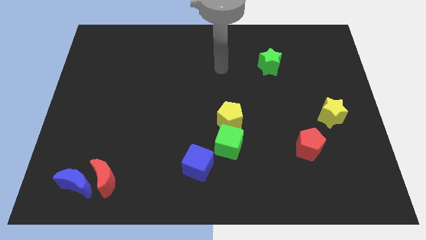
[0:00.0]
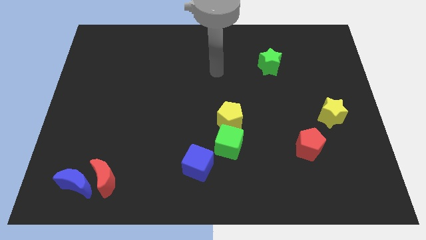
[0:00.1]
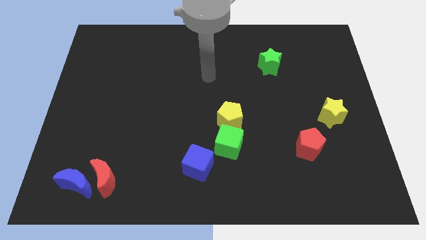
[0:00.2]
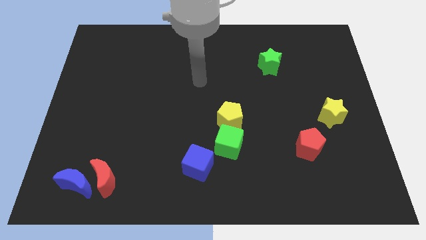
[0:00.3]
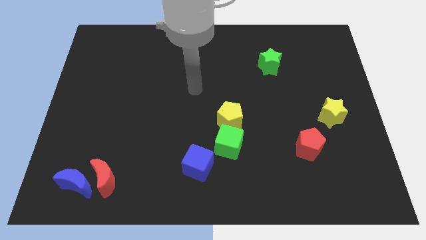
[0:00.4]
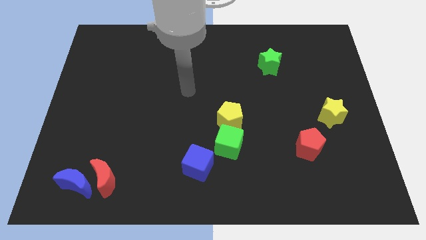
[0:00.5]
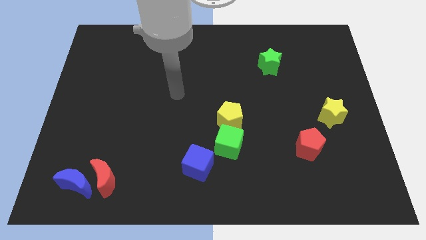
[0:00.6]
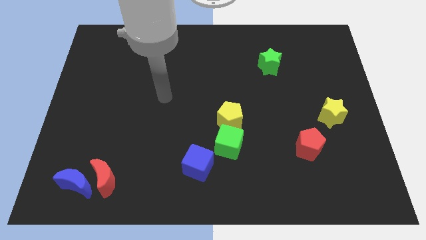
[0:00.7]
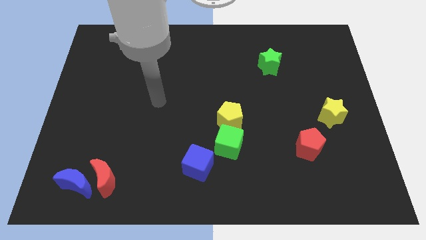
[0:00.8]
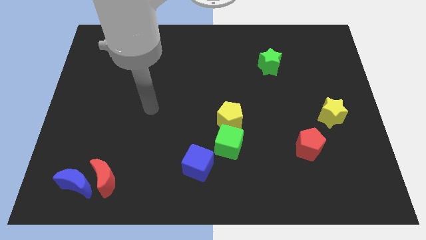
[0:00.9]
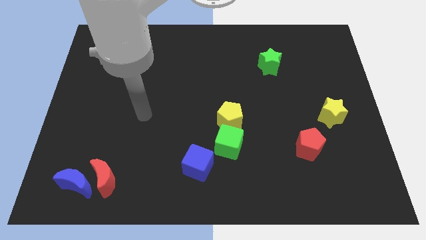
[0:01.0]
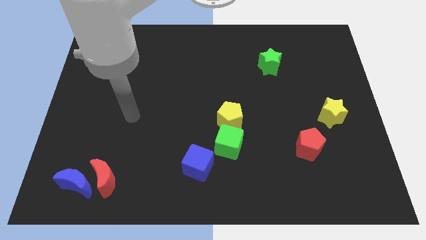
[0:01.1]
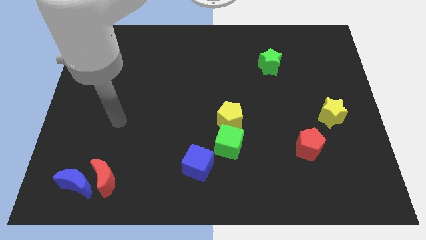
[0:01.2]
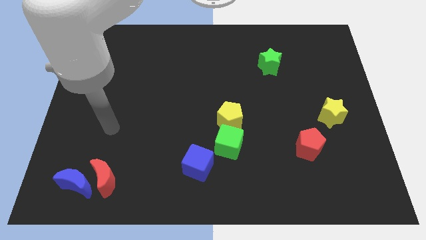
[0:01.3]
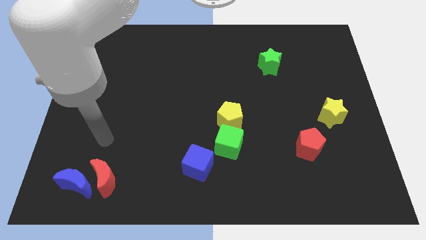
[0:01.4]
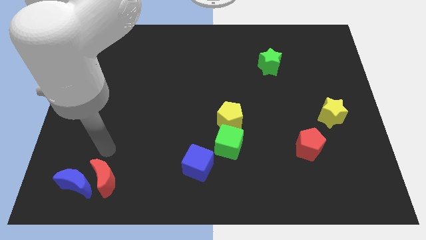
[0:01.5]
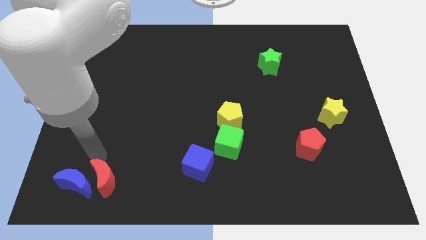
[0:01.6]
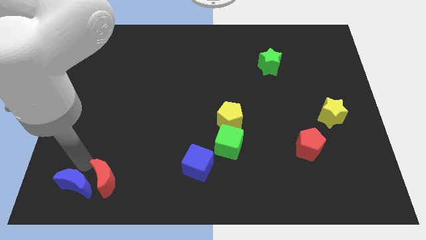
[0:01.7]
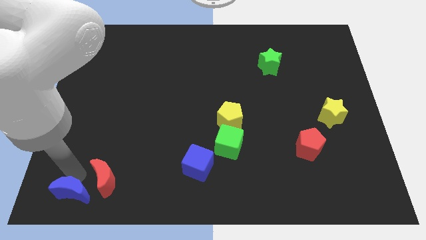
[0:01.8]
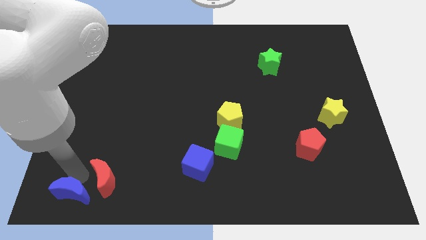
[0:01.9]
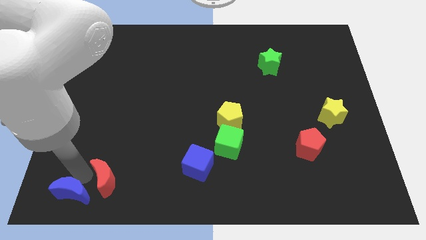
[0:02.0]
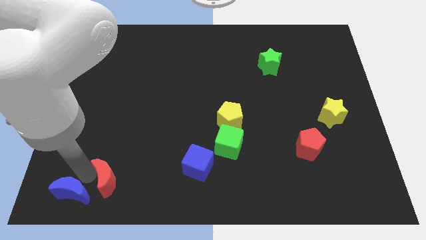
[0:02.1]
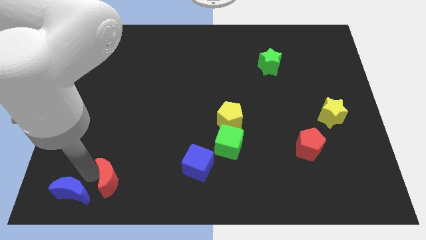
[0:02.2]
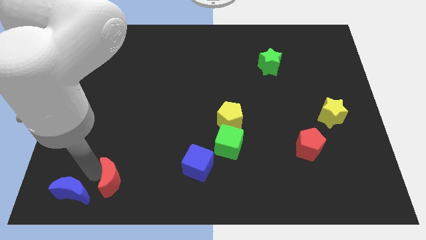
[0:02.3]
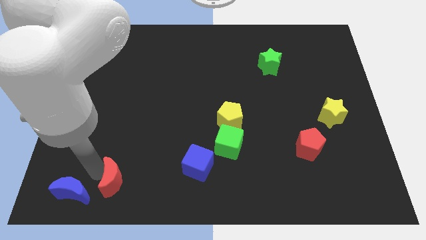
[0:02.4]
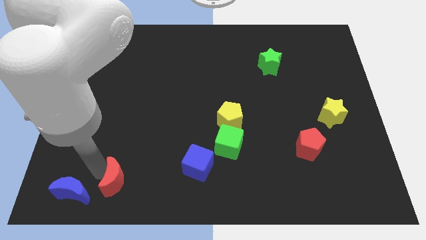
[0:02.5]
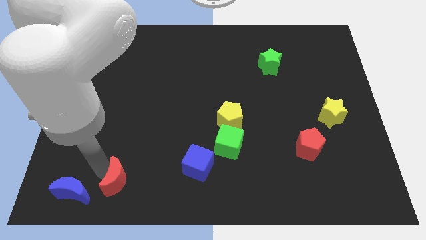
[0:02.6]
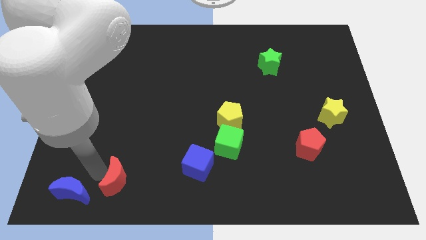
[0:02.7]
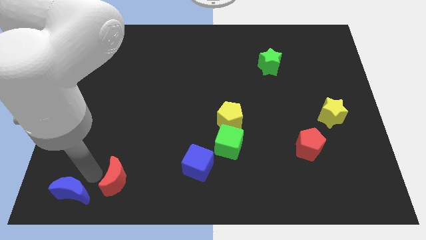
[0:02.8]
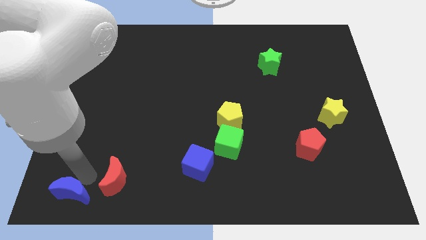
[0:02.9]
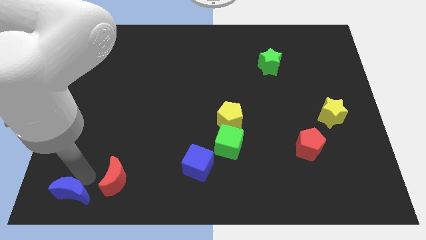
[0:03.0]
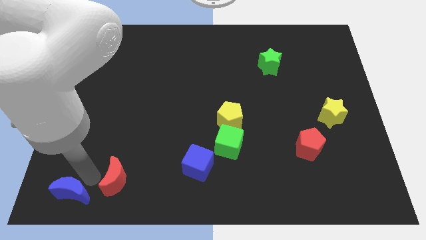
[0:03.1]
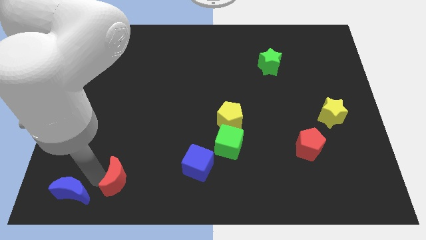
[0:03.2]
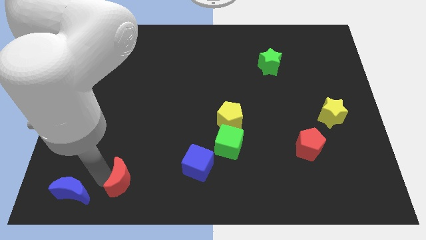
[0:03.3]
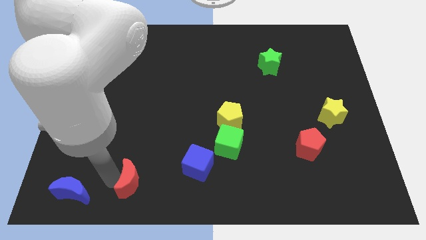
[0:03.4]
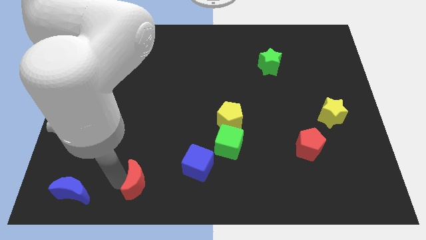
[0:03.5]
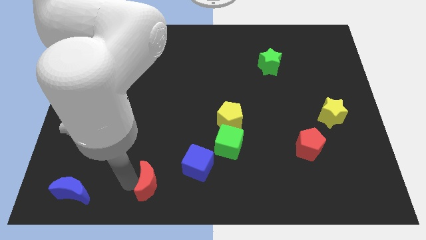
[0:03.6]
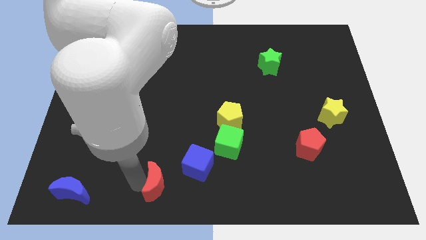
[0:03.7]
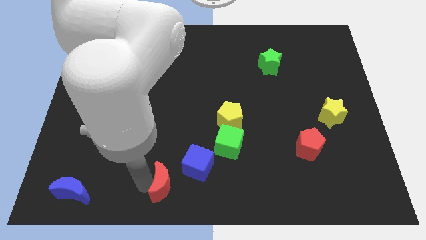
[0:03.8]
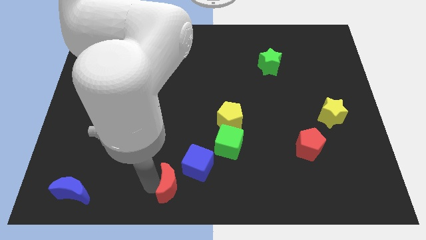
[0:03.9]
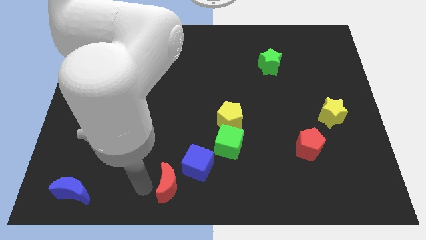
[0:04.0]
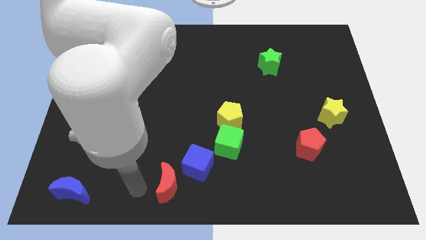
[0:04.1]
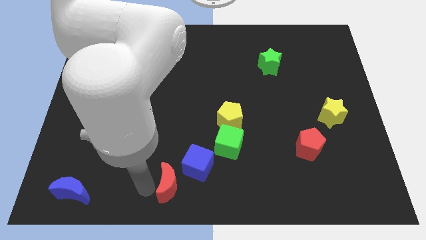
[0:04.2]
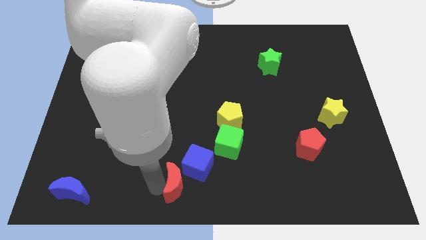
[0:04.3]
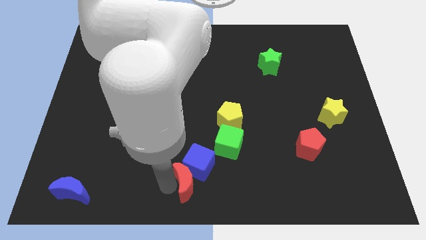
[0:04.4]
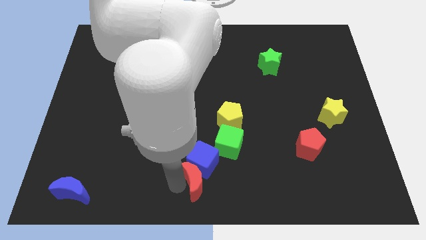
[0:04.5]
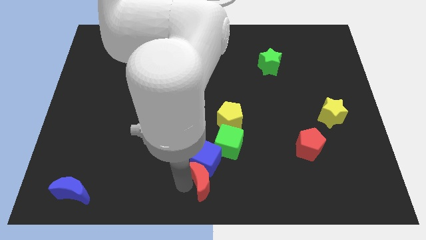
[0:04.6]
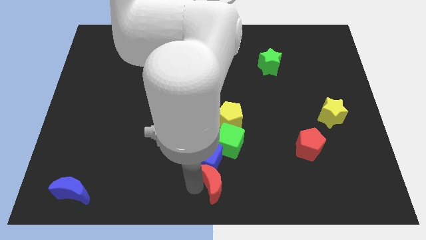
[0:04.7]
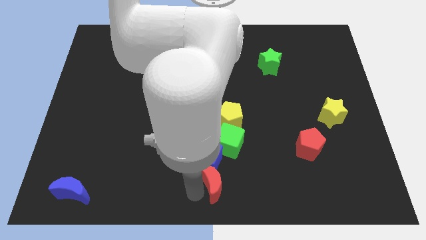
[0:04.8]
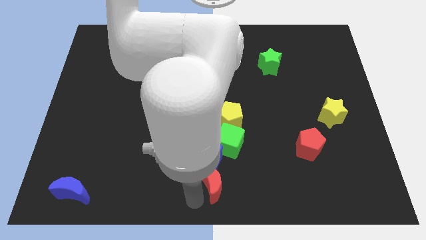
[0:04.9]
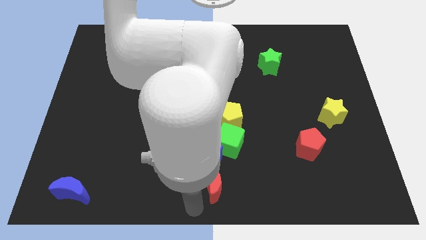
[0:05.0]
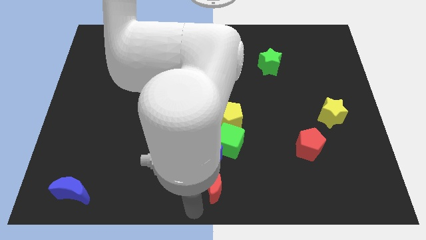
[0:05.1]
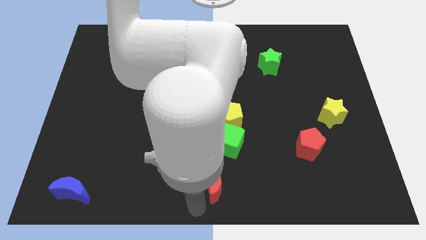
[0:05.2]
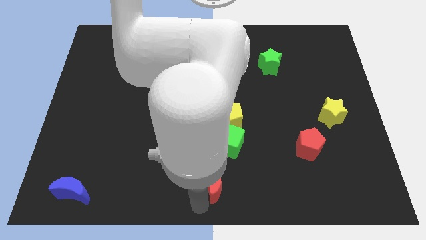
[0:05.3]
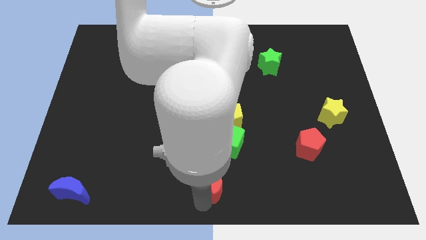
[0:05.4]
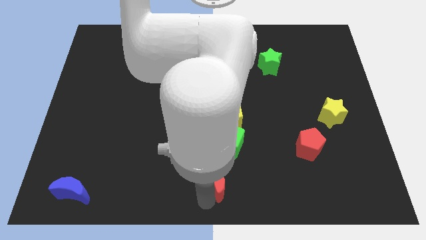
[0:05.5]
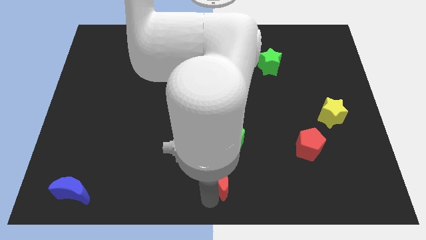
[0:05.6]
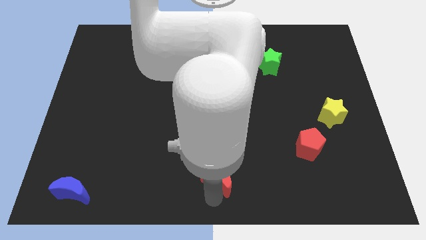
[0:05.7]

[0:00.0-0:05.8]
move the red moon to the bottom side of the yellow pentagon

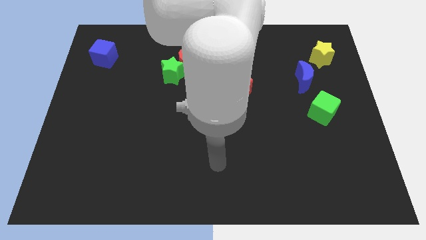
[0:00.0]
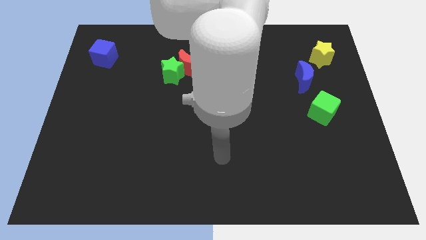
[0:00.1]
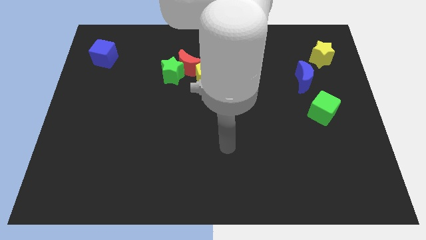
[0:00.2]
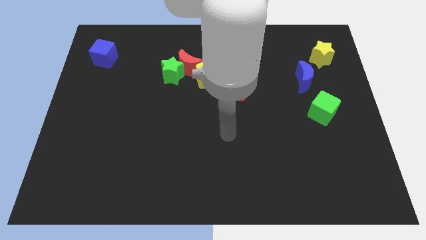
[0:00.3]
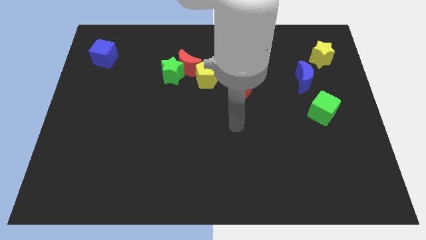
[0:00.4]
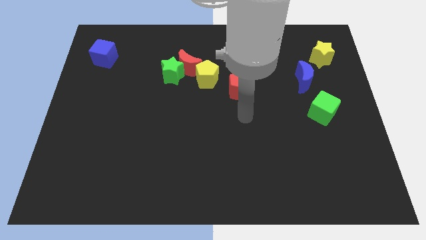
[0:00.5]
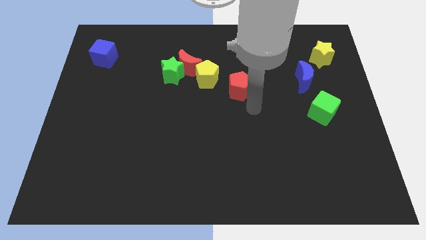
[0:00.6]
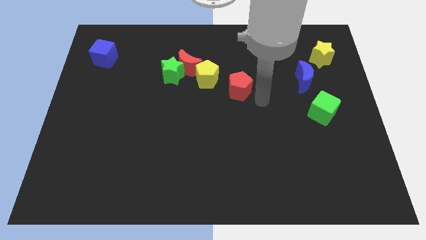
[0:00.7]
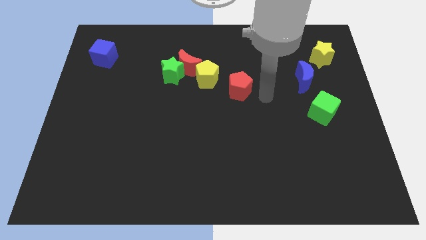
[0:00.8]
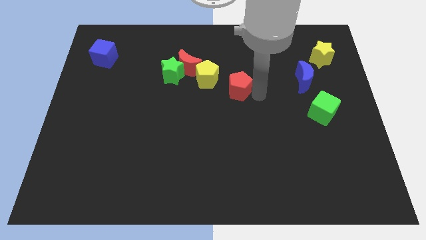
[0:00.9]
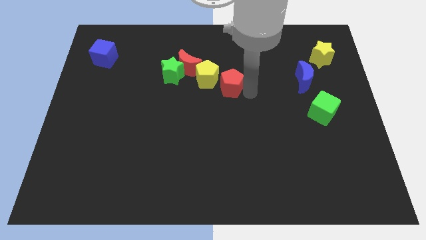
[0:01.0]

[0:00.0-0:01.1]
move the red pentagon to the bottom right side of the red moon

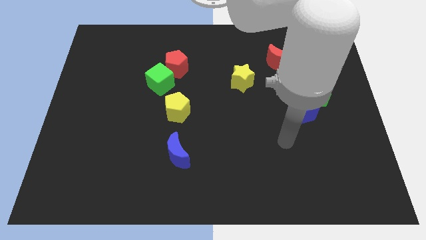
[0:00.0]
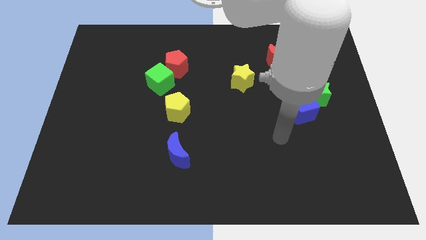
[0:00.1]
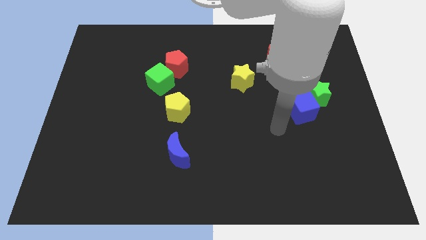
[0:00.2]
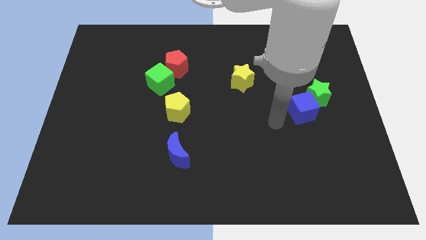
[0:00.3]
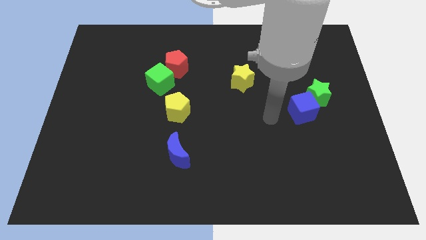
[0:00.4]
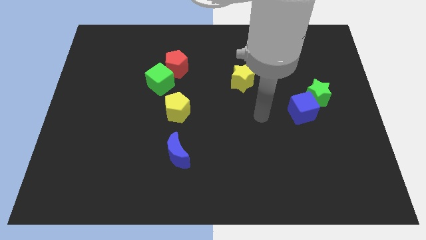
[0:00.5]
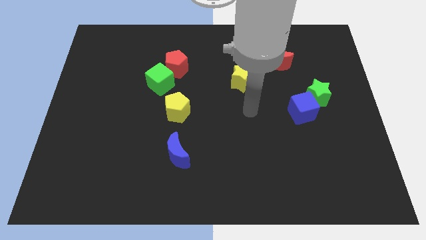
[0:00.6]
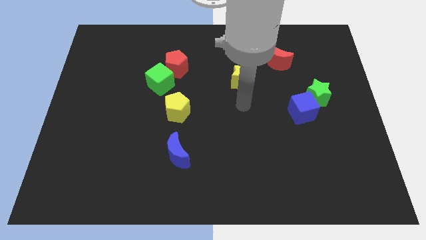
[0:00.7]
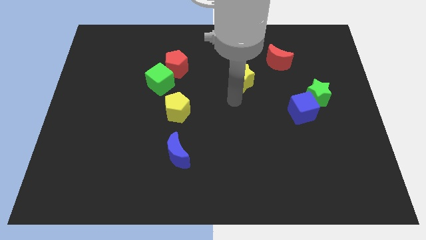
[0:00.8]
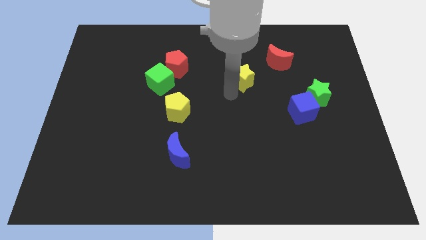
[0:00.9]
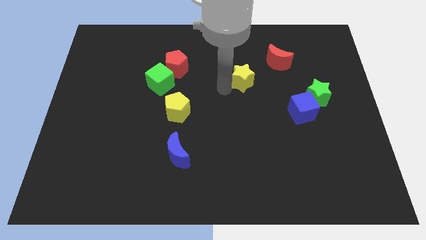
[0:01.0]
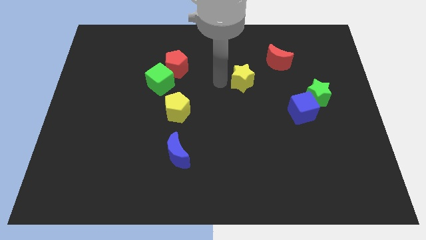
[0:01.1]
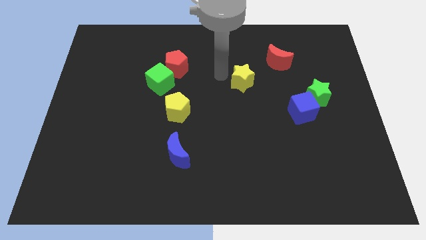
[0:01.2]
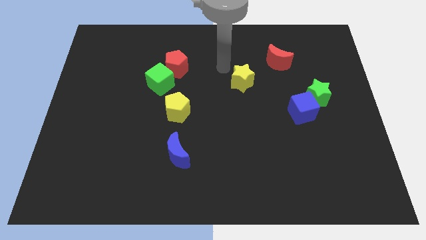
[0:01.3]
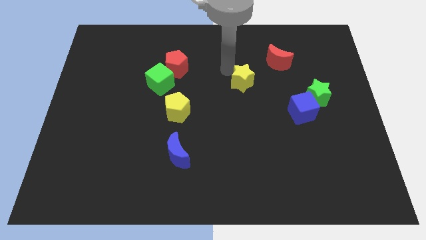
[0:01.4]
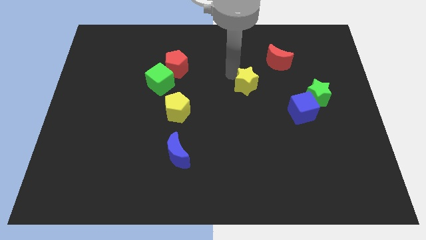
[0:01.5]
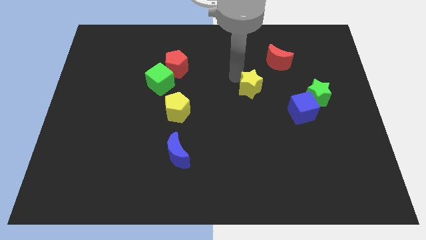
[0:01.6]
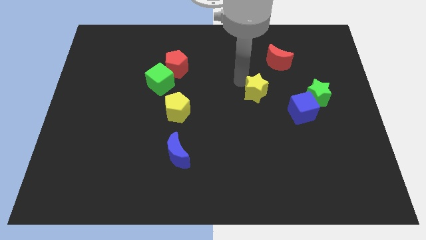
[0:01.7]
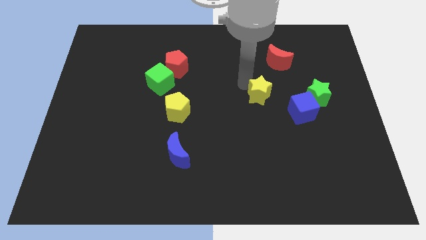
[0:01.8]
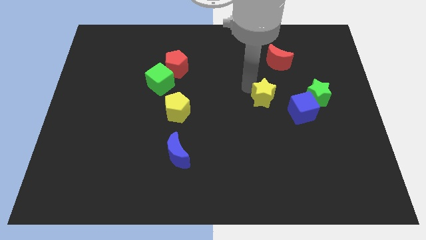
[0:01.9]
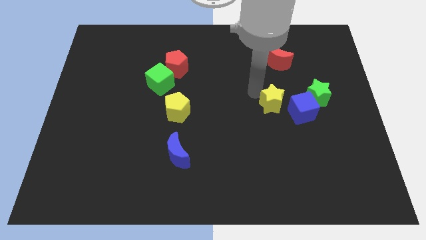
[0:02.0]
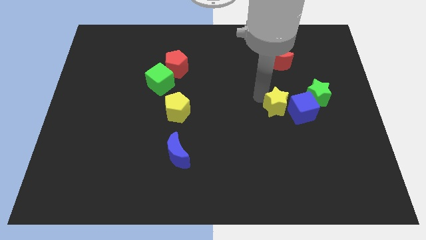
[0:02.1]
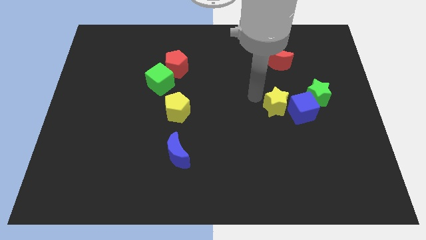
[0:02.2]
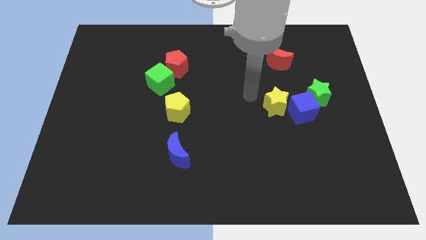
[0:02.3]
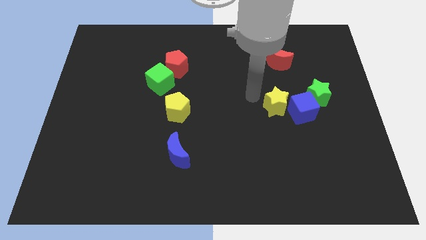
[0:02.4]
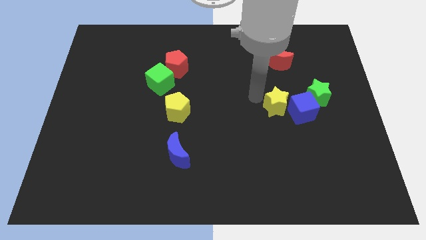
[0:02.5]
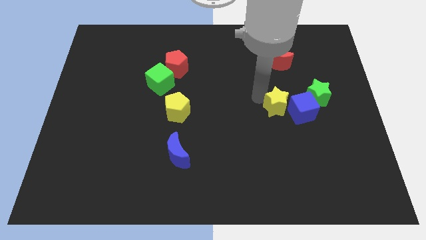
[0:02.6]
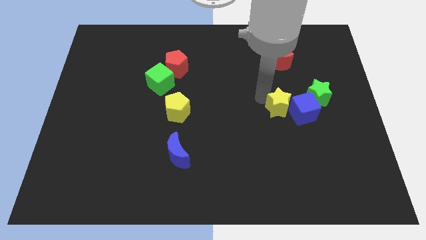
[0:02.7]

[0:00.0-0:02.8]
push the yellow star to the bottom left of the green star
